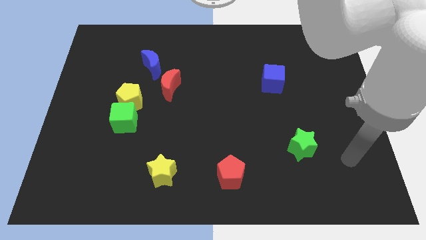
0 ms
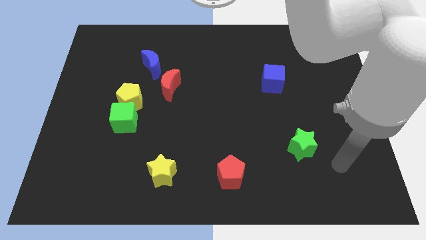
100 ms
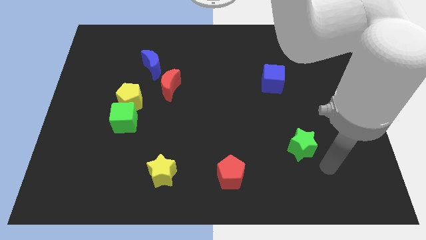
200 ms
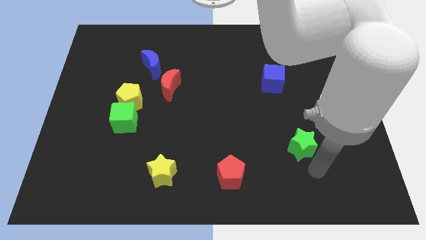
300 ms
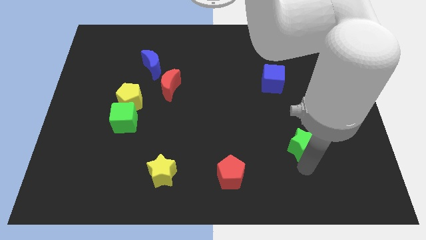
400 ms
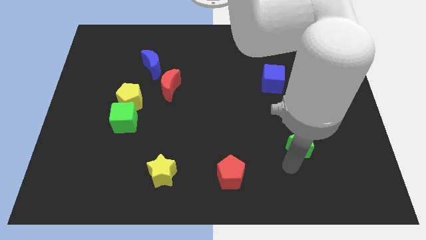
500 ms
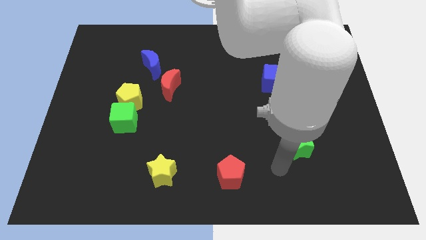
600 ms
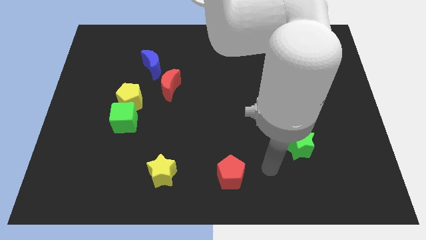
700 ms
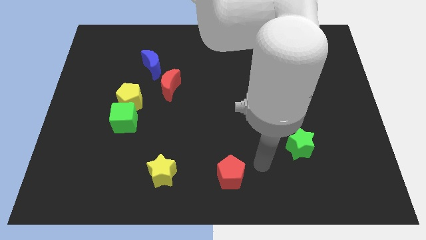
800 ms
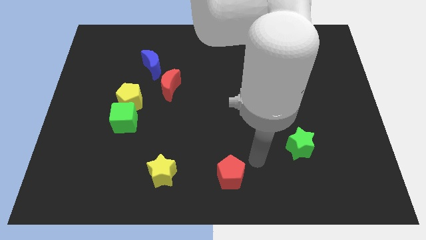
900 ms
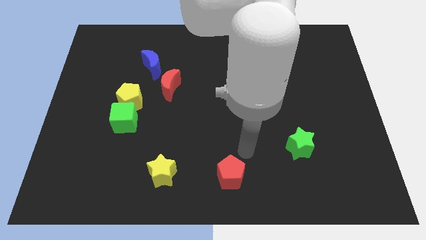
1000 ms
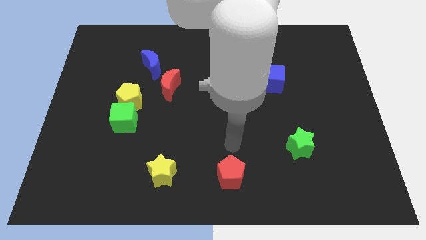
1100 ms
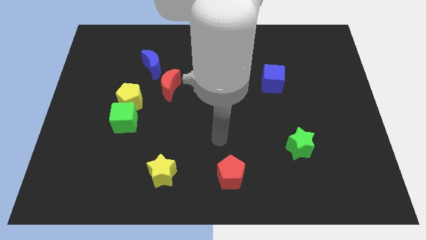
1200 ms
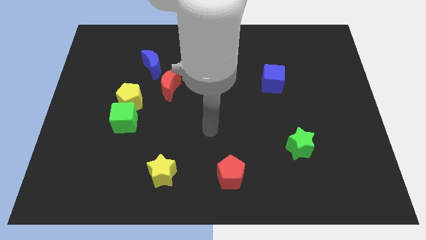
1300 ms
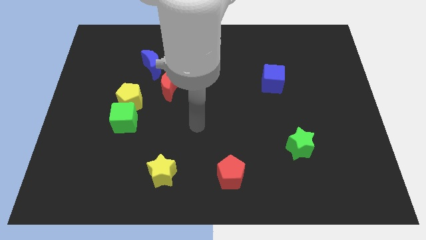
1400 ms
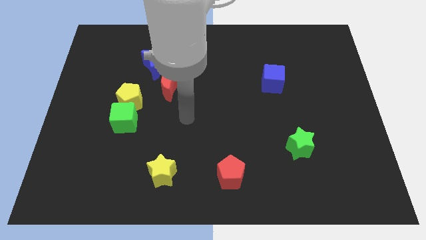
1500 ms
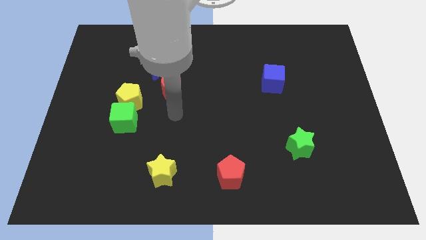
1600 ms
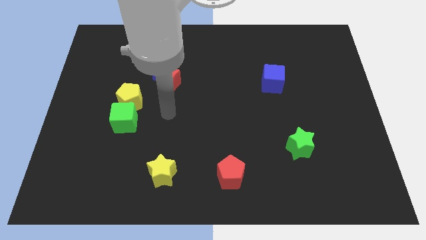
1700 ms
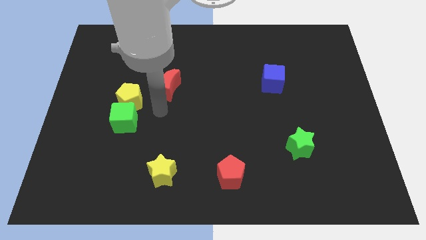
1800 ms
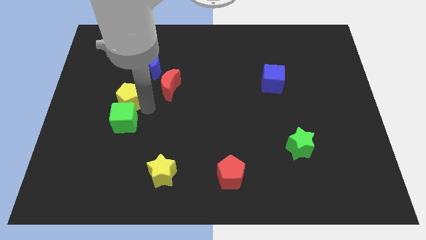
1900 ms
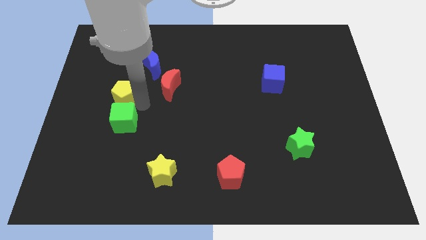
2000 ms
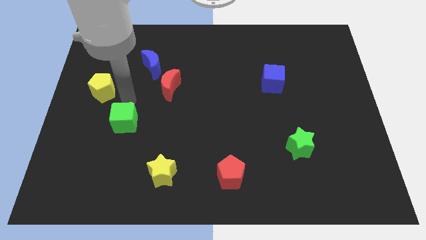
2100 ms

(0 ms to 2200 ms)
separate the green cube from the yellow pentagon

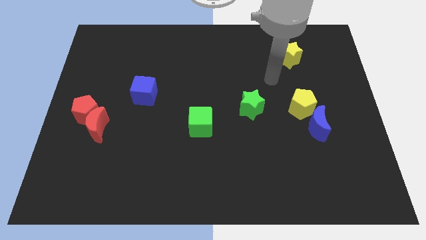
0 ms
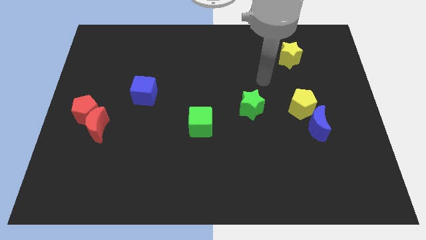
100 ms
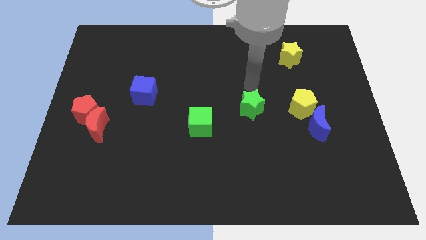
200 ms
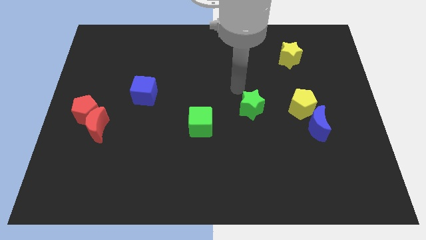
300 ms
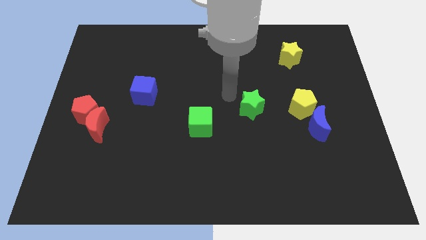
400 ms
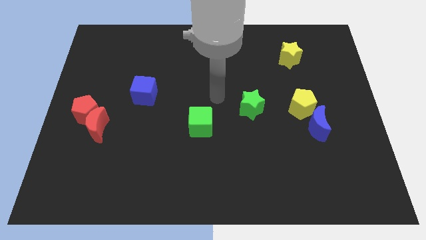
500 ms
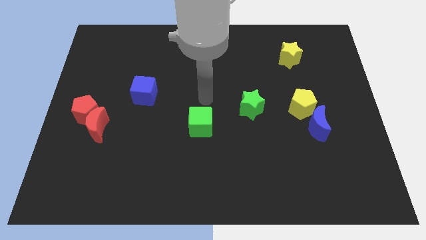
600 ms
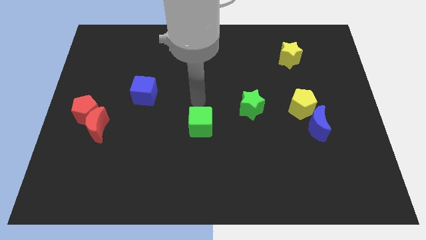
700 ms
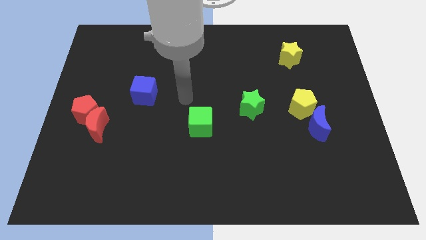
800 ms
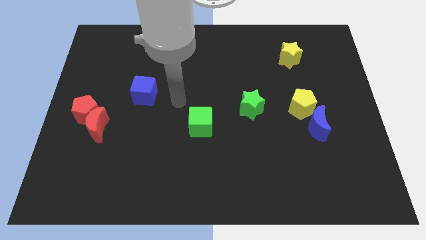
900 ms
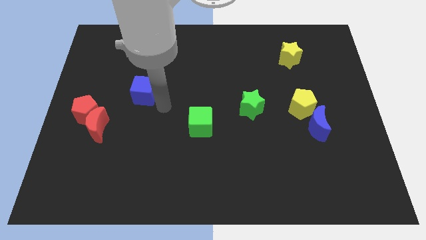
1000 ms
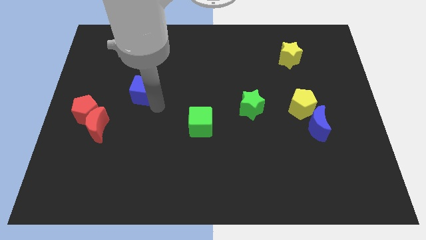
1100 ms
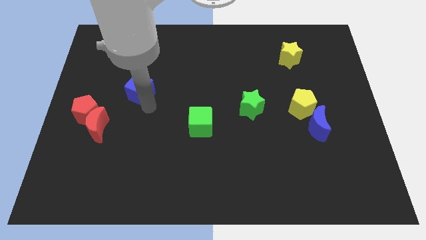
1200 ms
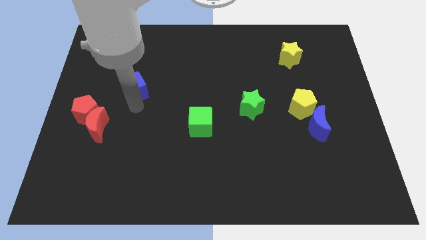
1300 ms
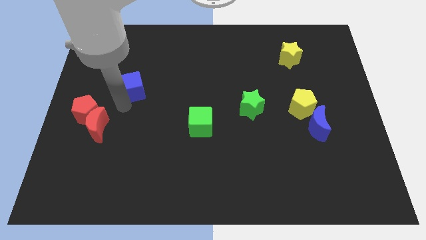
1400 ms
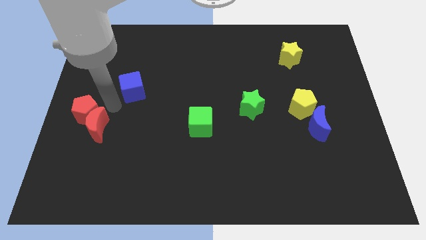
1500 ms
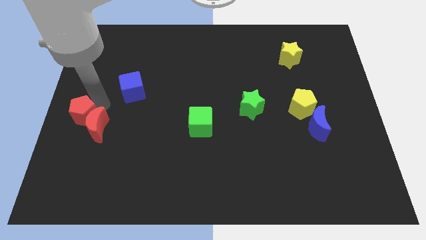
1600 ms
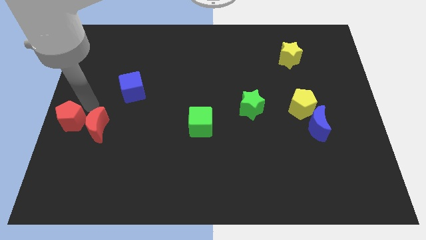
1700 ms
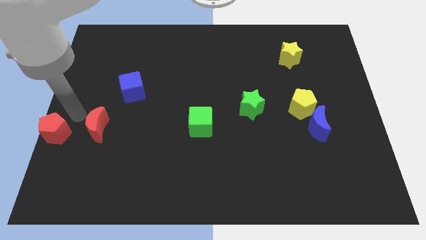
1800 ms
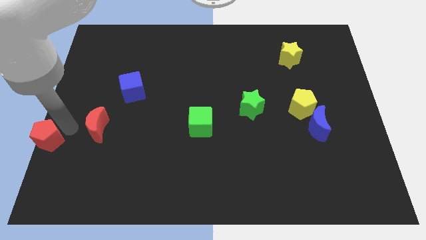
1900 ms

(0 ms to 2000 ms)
pull the red moon apart from the red pentagon

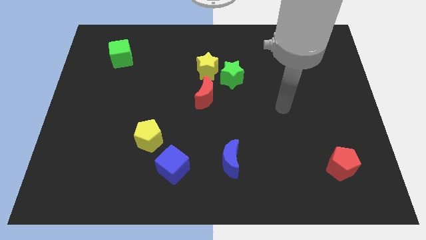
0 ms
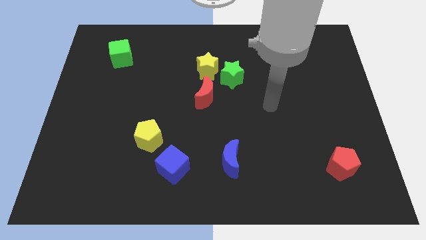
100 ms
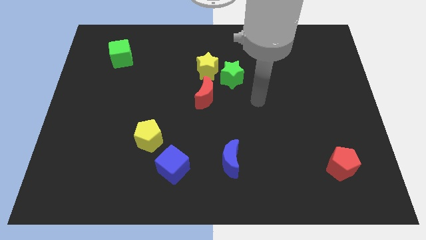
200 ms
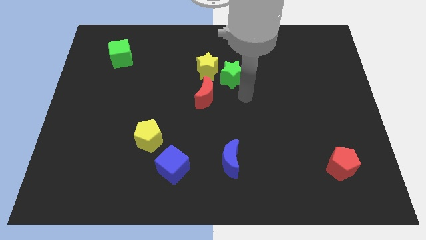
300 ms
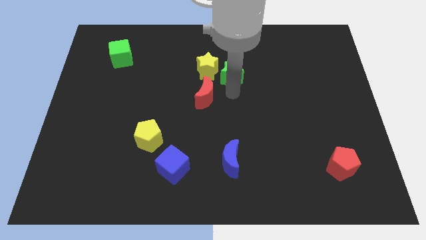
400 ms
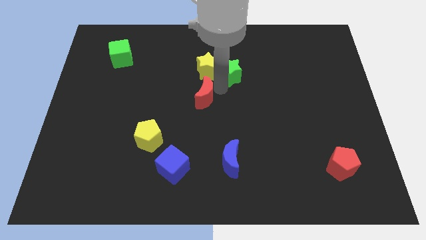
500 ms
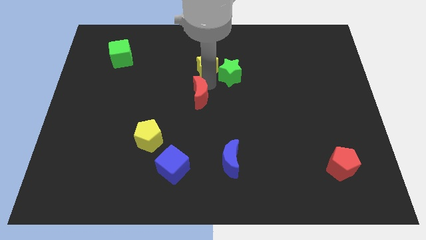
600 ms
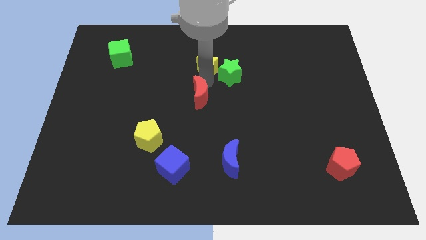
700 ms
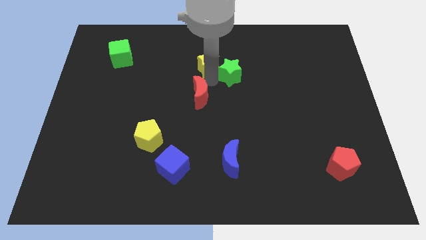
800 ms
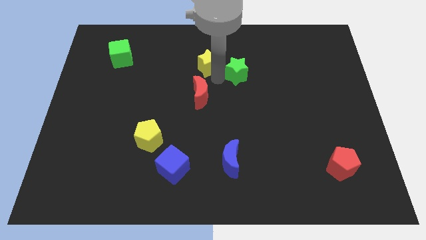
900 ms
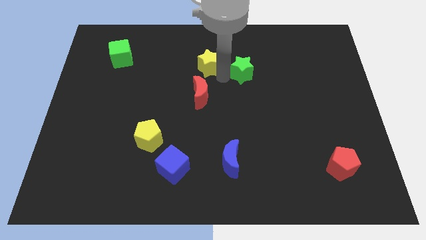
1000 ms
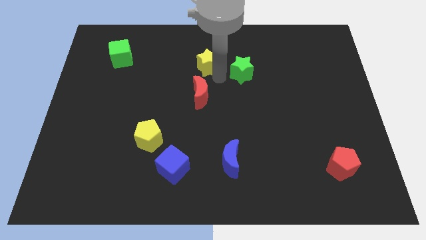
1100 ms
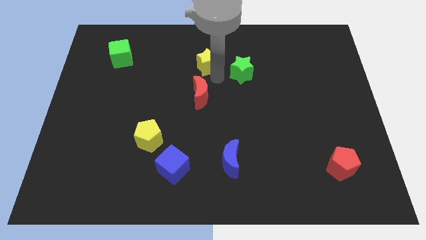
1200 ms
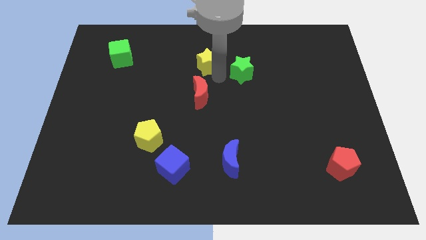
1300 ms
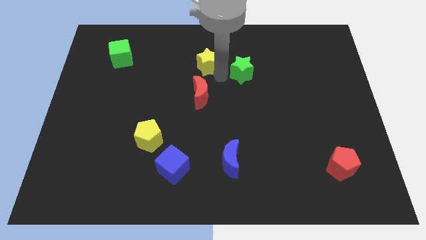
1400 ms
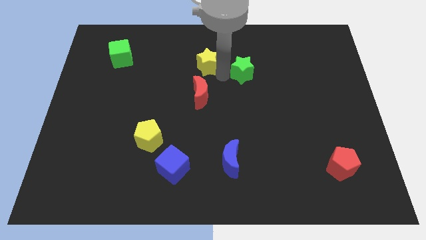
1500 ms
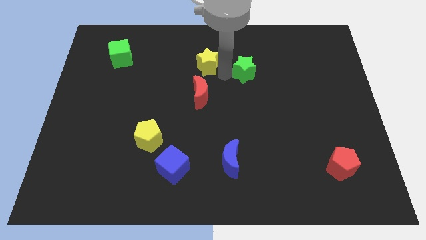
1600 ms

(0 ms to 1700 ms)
pull the green star apart from the yellow star and red moon

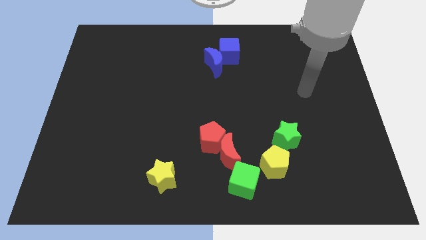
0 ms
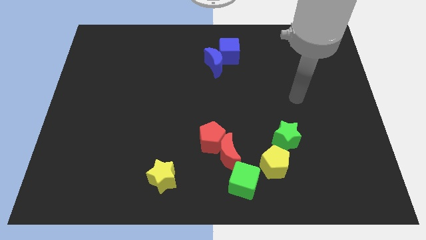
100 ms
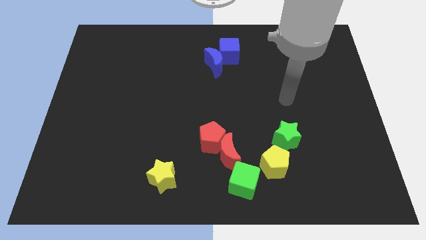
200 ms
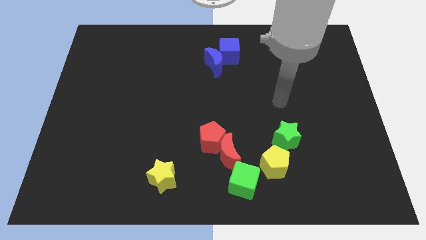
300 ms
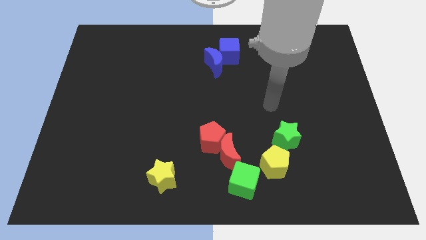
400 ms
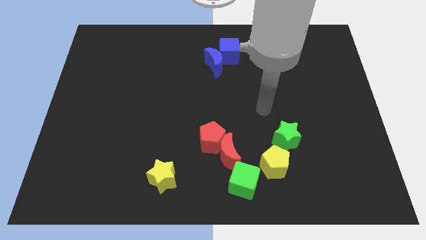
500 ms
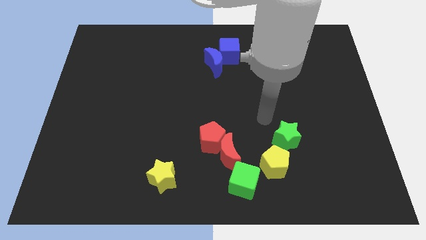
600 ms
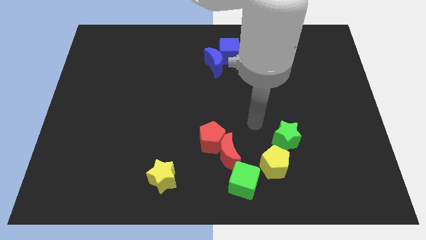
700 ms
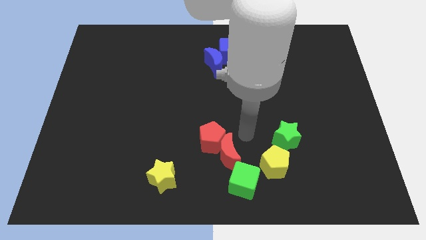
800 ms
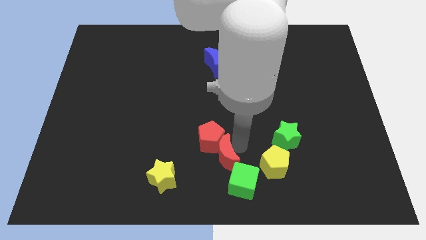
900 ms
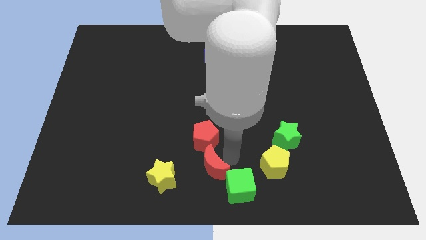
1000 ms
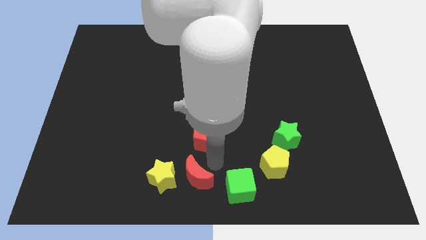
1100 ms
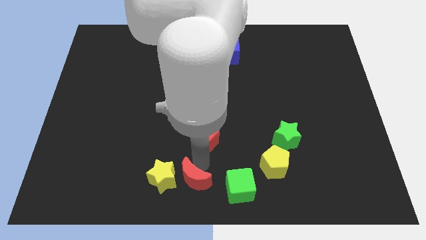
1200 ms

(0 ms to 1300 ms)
pull the red pentagon apart from the red moon

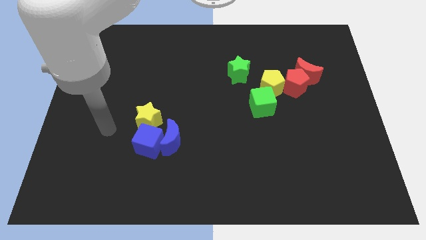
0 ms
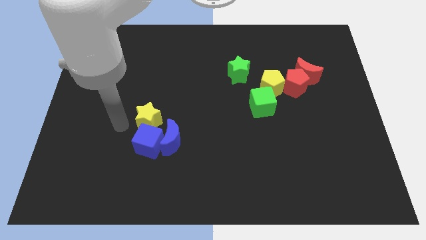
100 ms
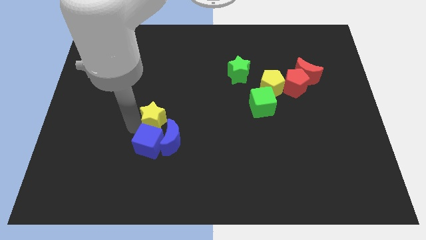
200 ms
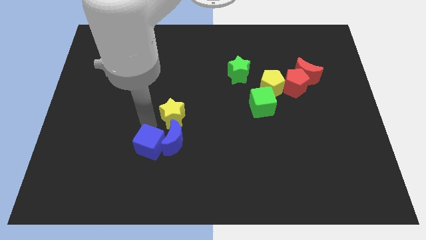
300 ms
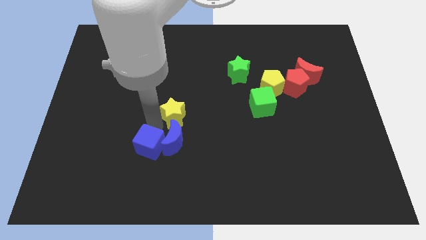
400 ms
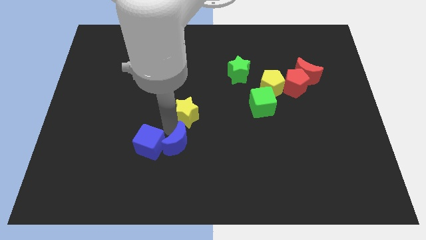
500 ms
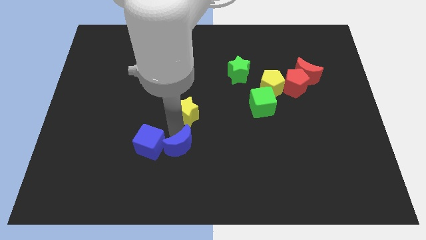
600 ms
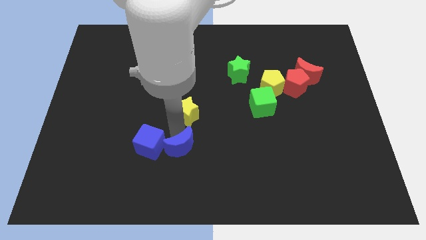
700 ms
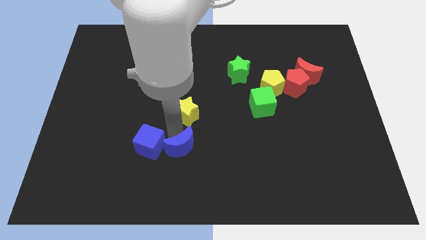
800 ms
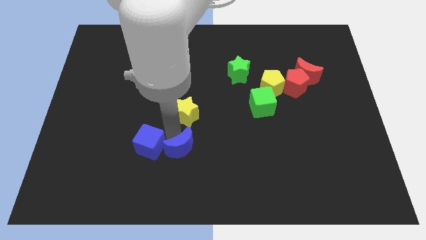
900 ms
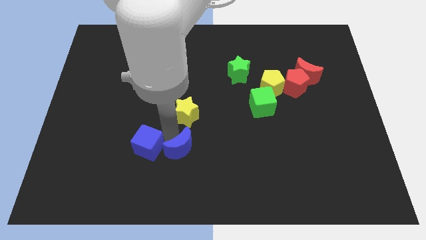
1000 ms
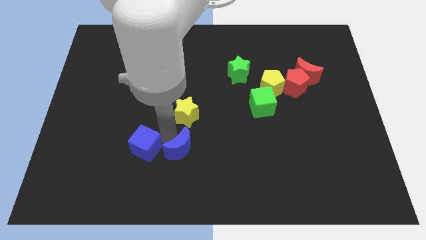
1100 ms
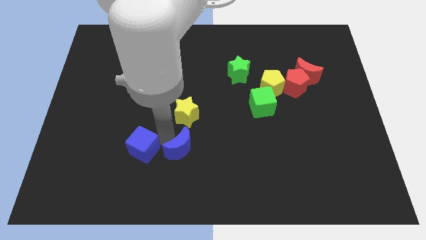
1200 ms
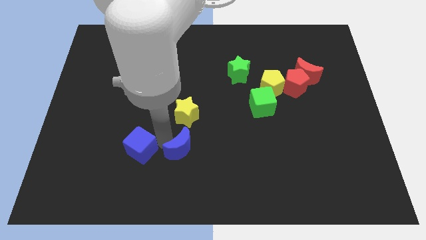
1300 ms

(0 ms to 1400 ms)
pull the blue cube apart from the blue moon and yellow star

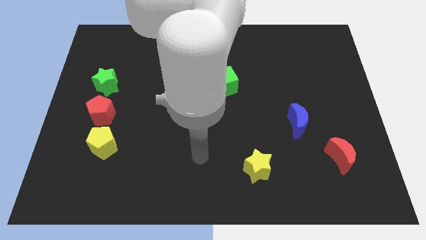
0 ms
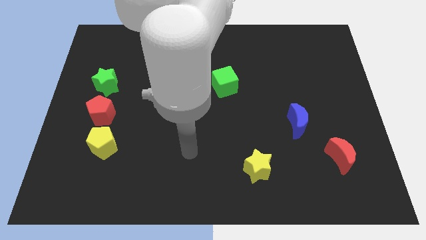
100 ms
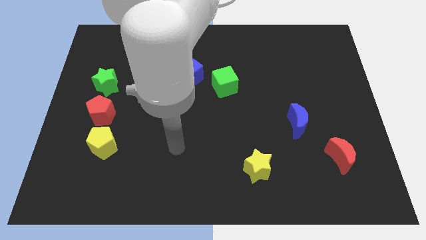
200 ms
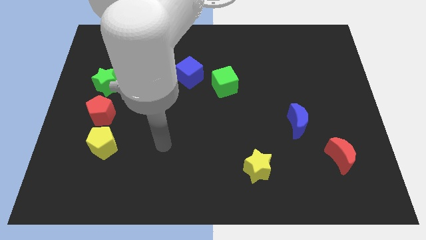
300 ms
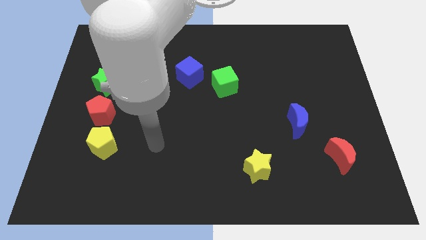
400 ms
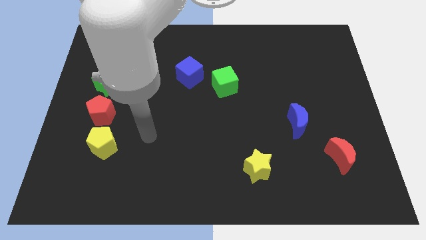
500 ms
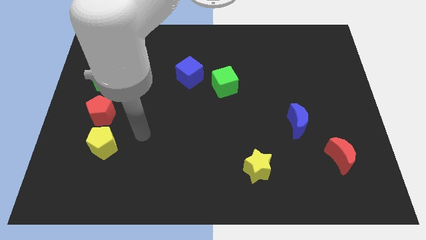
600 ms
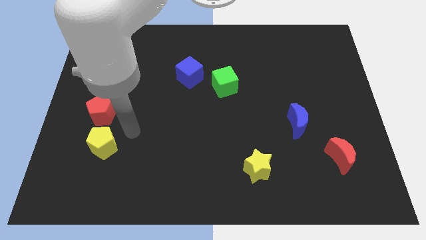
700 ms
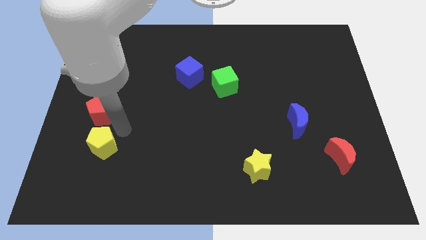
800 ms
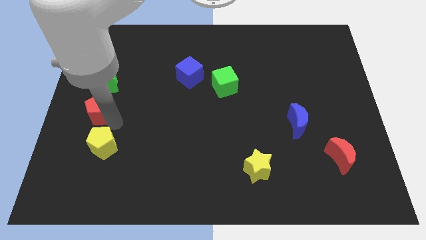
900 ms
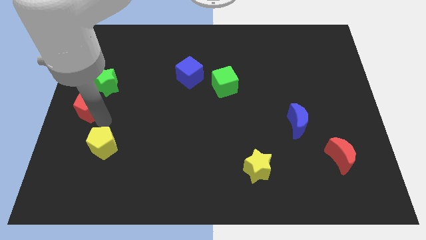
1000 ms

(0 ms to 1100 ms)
pull the yellow pentagon apart from the red pentagon
